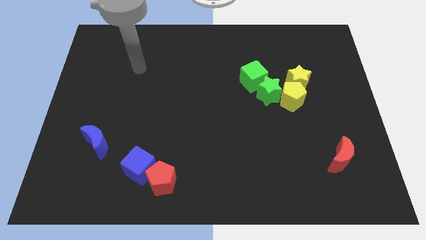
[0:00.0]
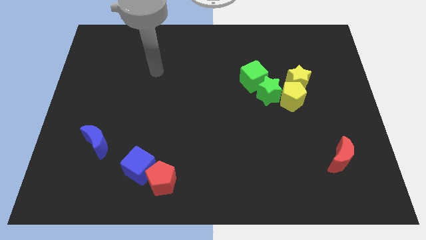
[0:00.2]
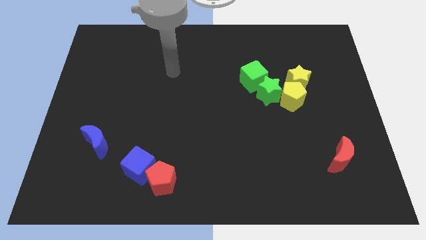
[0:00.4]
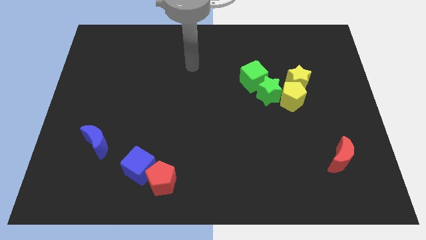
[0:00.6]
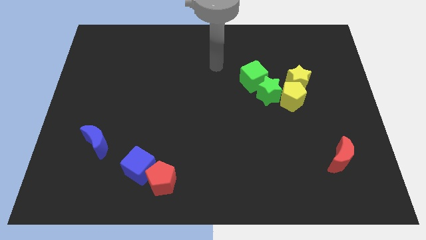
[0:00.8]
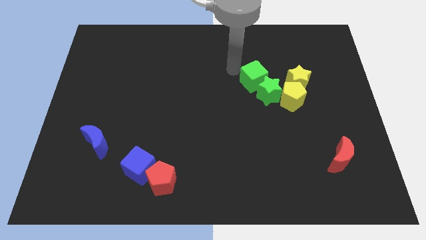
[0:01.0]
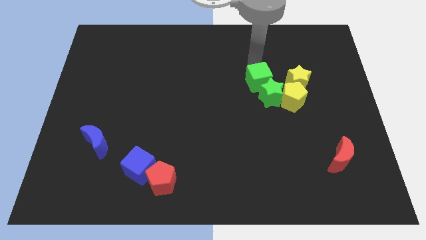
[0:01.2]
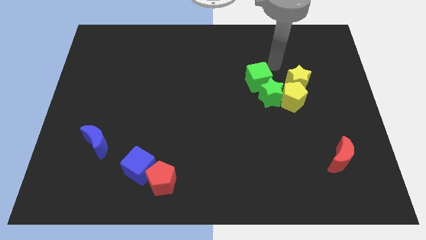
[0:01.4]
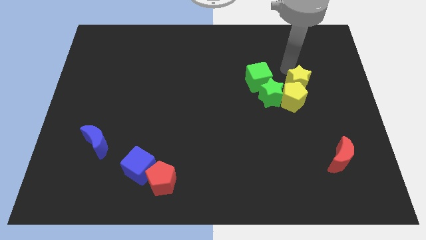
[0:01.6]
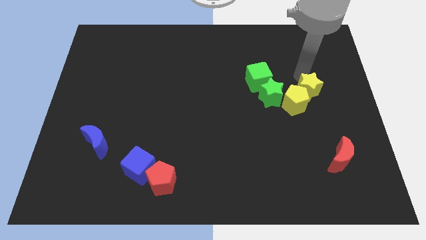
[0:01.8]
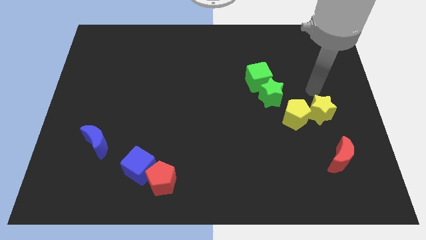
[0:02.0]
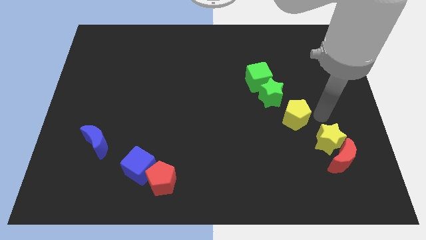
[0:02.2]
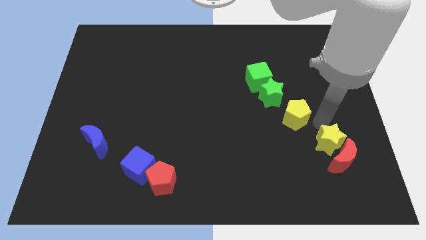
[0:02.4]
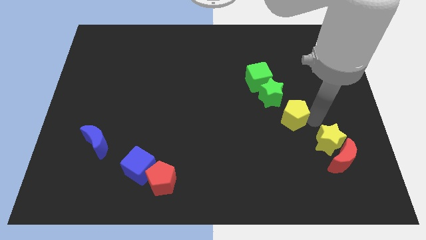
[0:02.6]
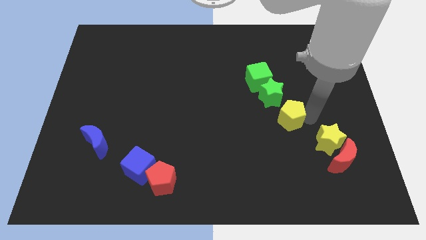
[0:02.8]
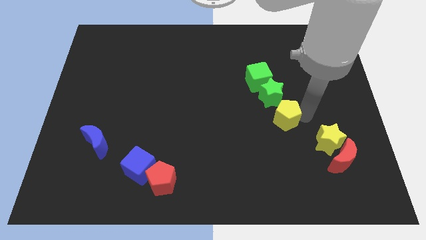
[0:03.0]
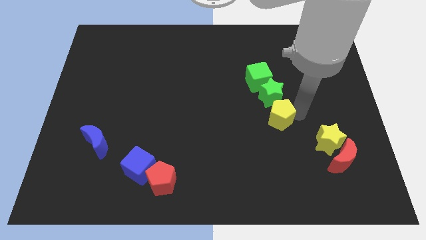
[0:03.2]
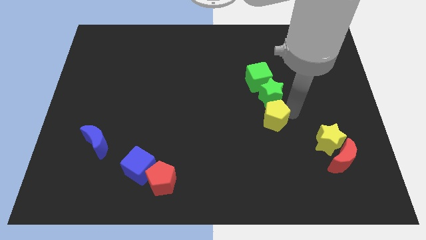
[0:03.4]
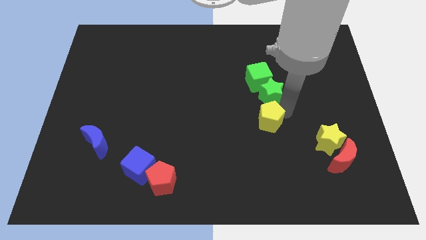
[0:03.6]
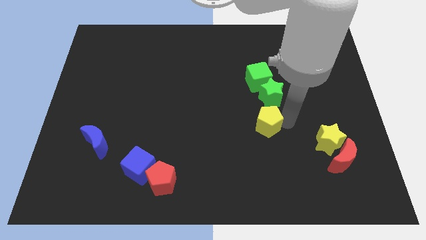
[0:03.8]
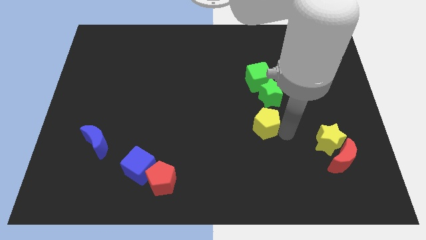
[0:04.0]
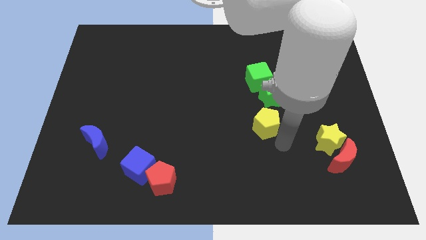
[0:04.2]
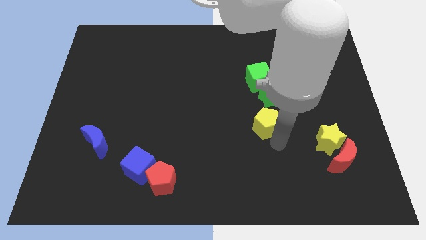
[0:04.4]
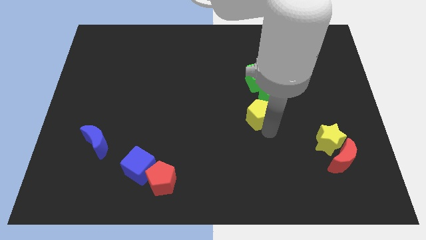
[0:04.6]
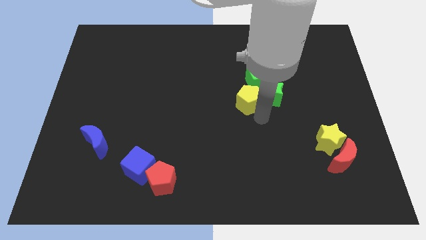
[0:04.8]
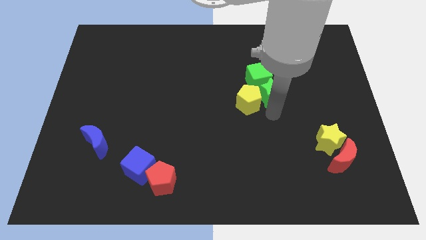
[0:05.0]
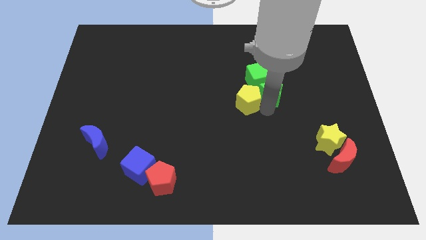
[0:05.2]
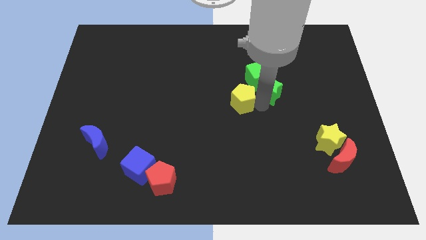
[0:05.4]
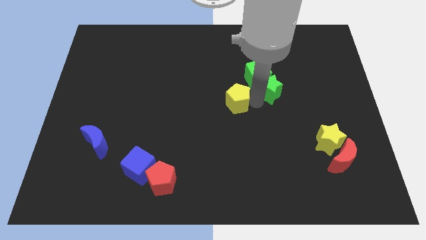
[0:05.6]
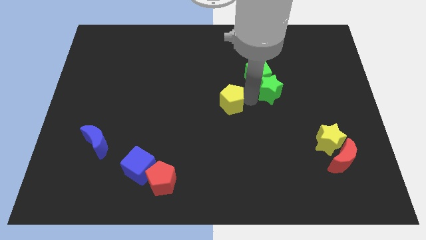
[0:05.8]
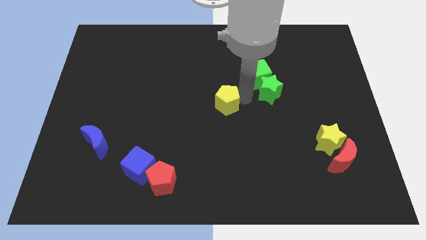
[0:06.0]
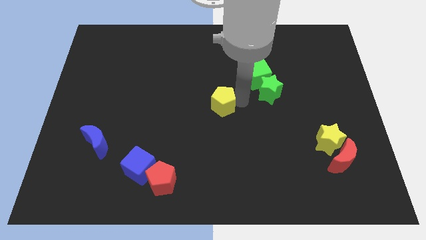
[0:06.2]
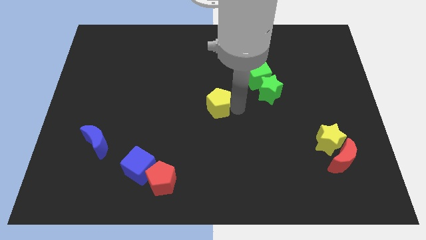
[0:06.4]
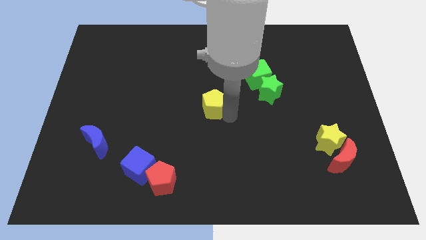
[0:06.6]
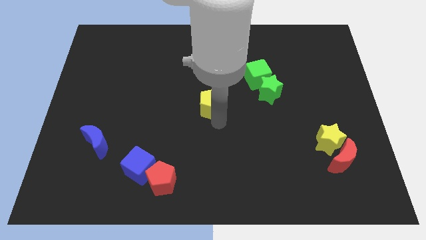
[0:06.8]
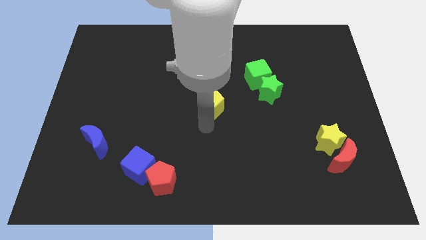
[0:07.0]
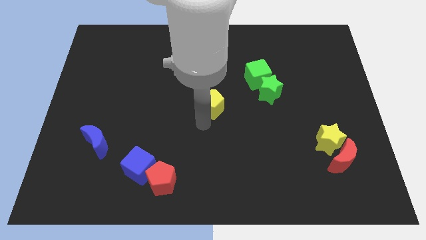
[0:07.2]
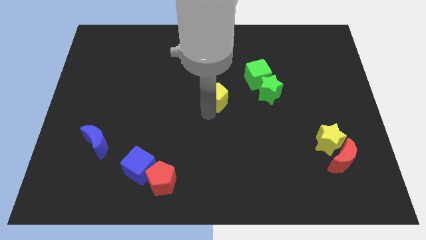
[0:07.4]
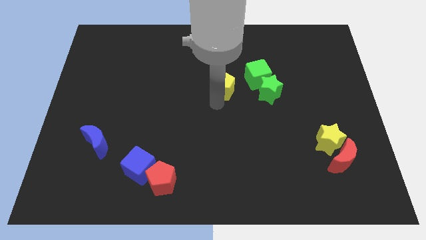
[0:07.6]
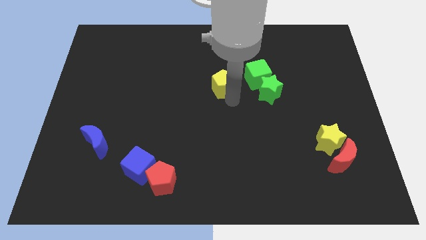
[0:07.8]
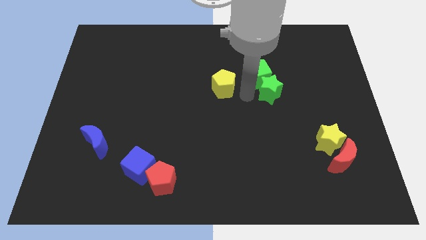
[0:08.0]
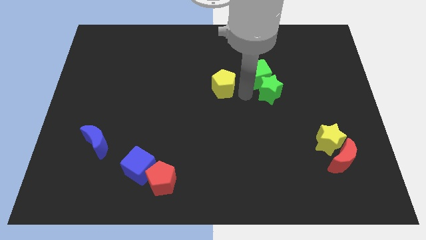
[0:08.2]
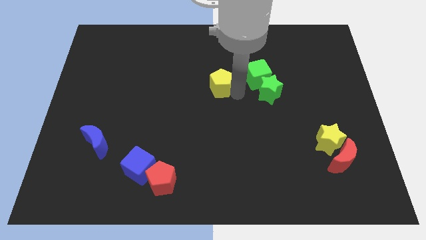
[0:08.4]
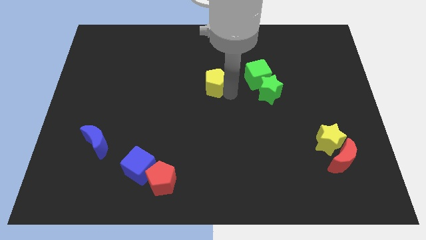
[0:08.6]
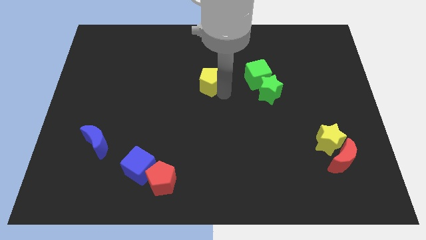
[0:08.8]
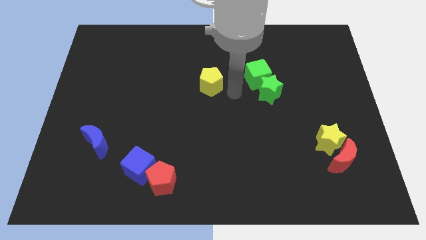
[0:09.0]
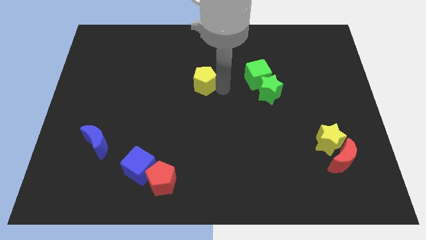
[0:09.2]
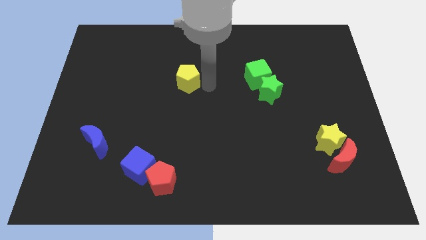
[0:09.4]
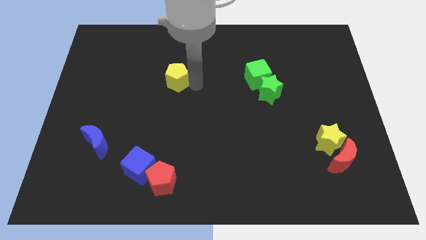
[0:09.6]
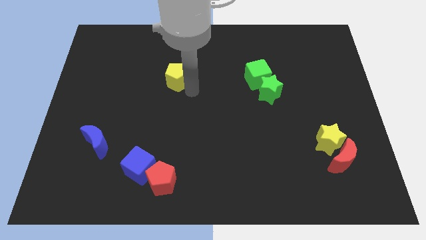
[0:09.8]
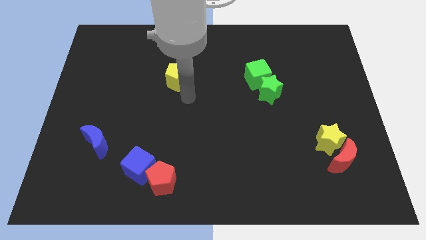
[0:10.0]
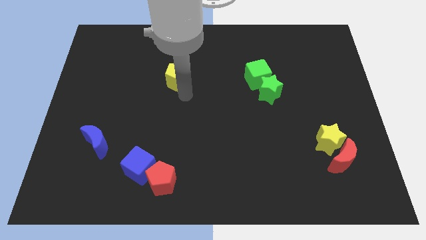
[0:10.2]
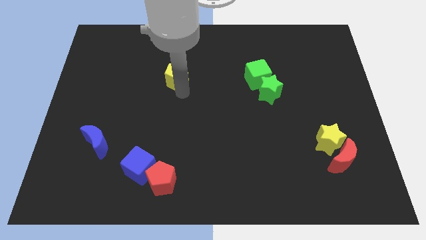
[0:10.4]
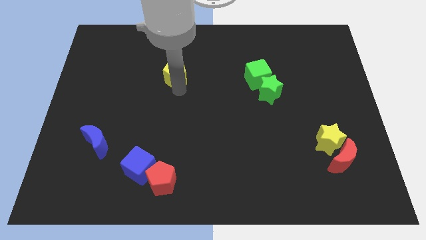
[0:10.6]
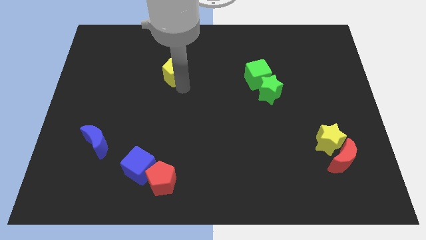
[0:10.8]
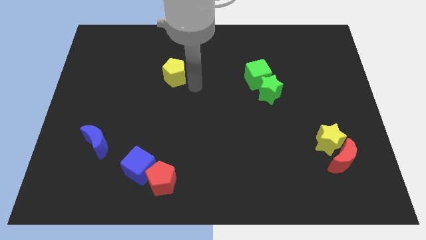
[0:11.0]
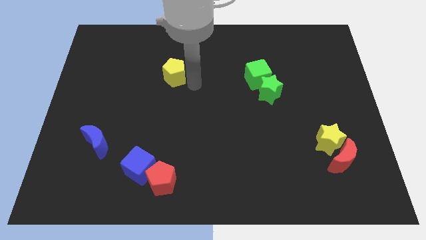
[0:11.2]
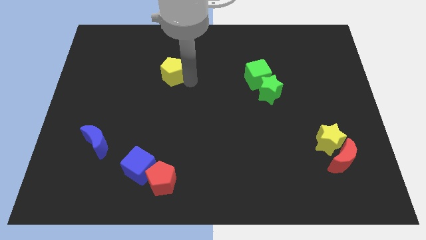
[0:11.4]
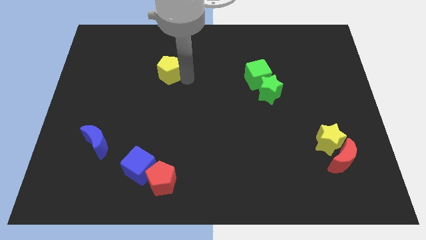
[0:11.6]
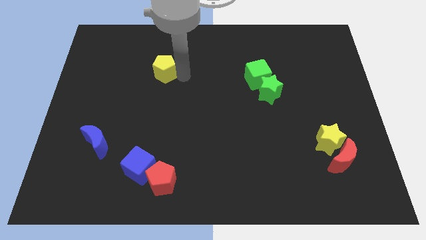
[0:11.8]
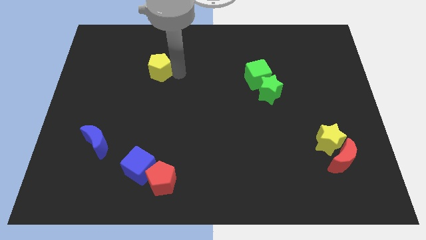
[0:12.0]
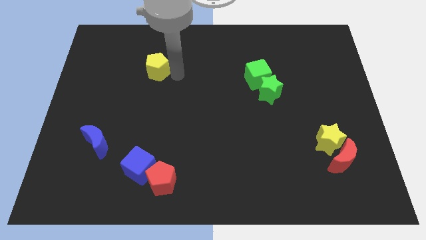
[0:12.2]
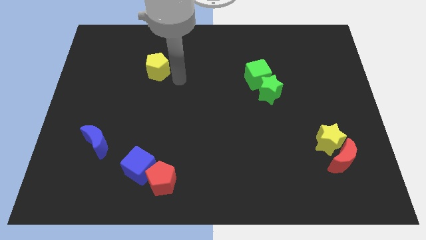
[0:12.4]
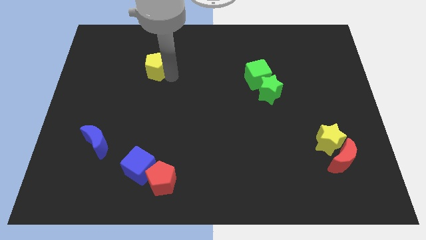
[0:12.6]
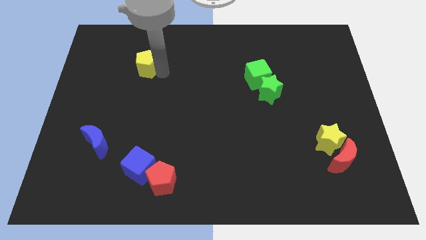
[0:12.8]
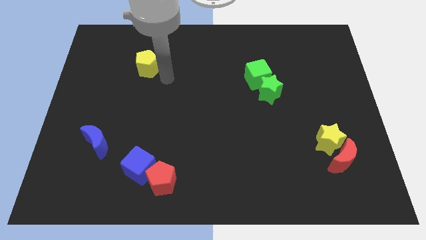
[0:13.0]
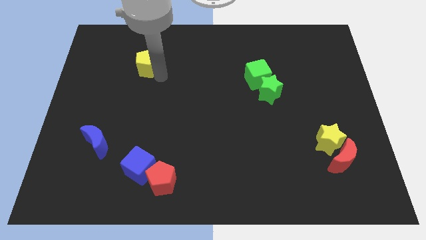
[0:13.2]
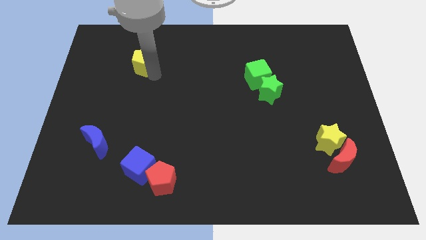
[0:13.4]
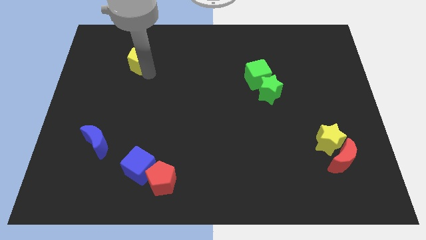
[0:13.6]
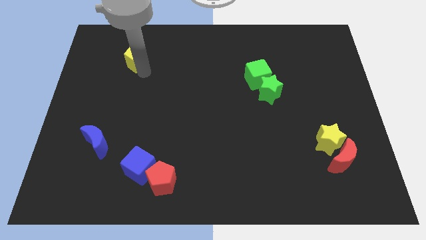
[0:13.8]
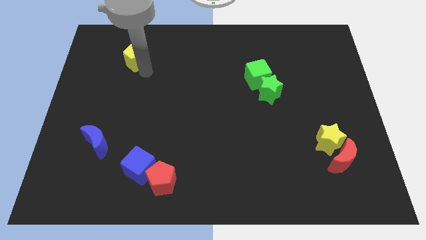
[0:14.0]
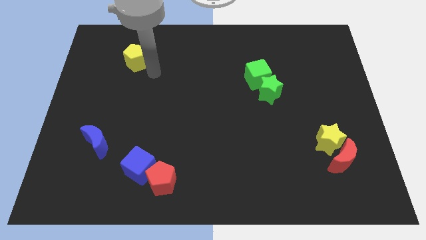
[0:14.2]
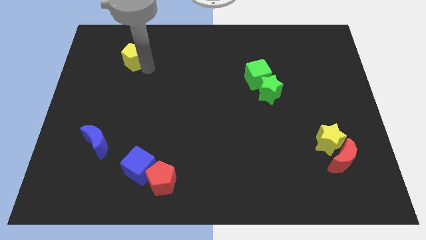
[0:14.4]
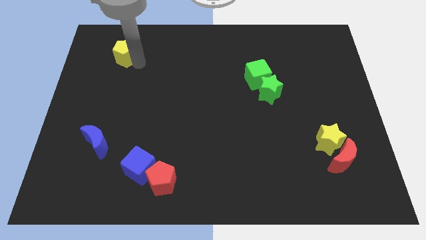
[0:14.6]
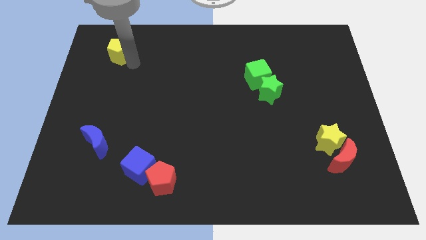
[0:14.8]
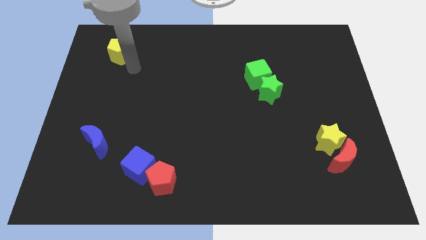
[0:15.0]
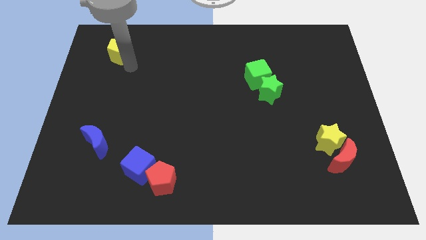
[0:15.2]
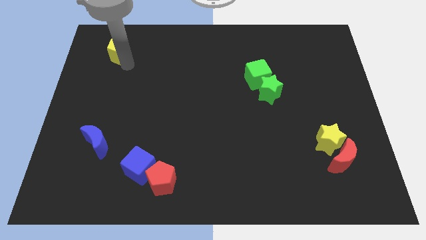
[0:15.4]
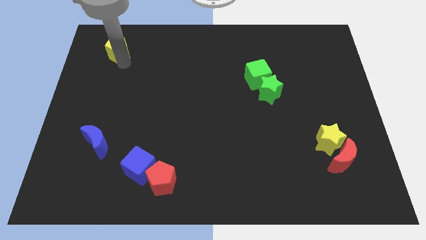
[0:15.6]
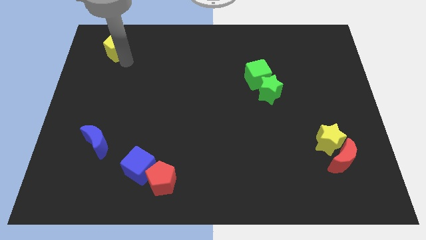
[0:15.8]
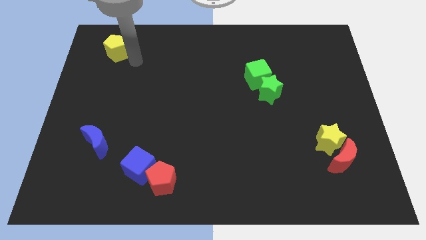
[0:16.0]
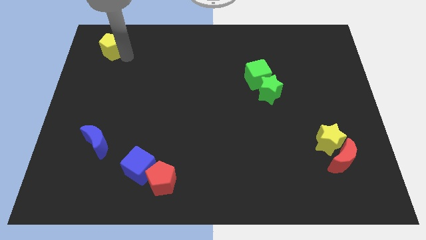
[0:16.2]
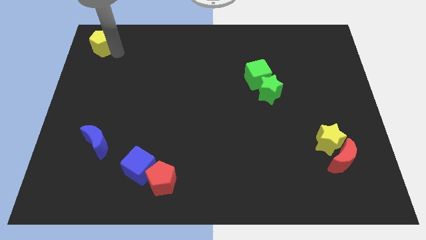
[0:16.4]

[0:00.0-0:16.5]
put the yellow pentagon to the top left corner
